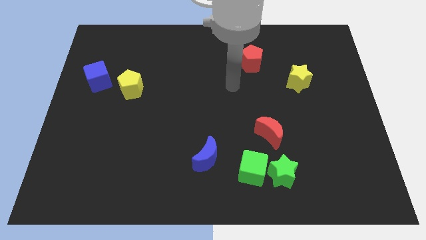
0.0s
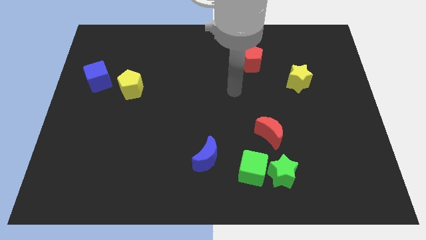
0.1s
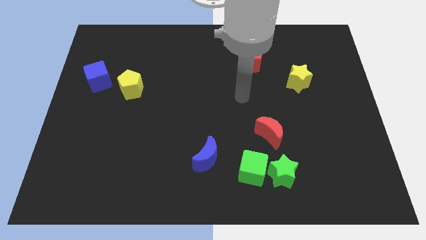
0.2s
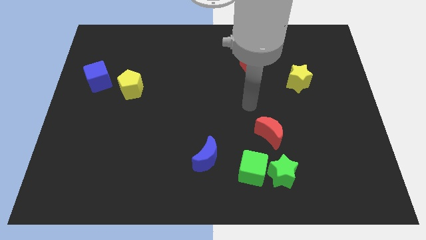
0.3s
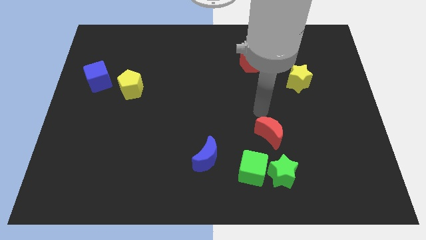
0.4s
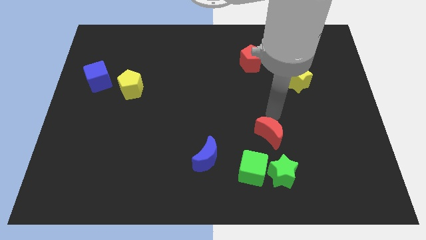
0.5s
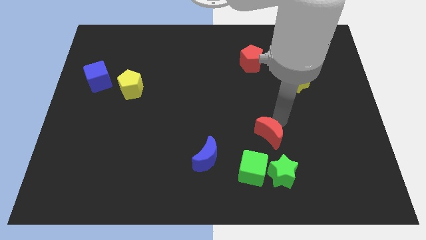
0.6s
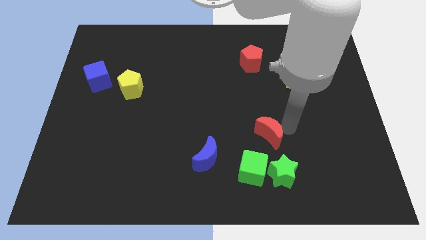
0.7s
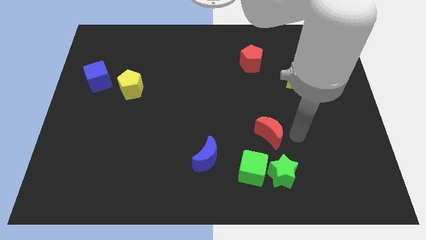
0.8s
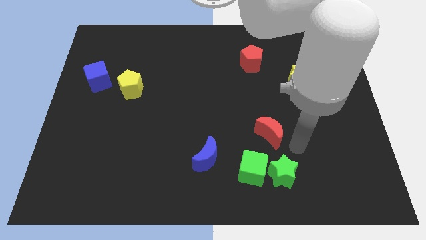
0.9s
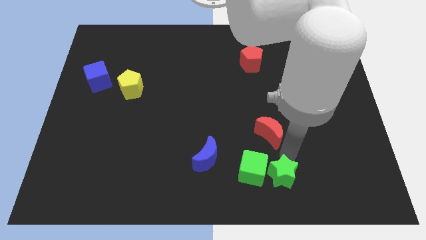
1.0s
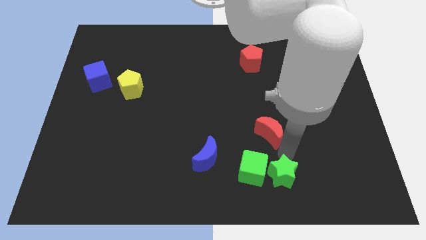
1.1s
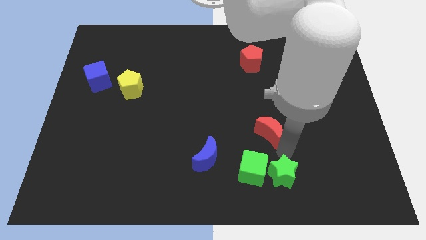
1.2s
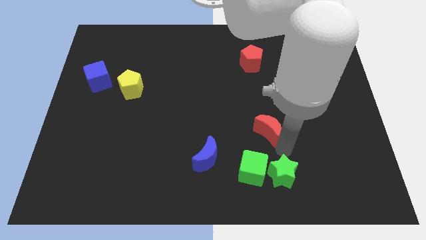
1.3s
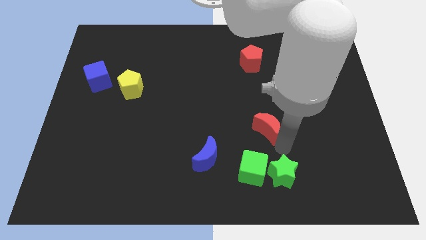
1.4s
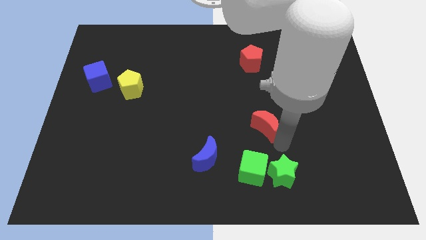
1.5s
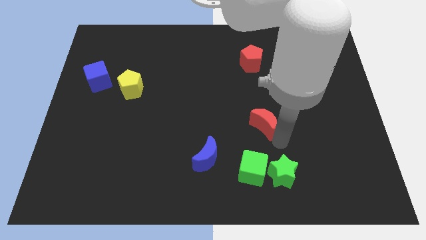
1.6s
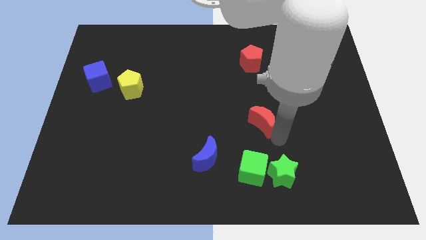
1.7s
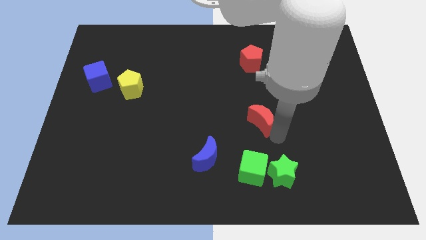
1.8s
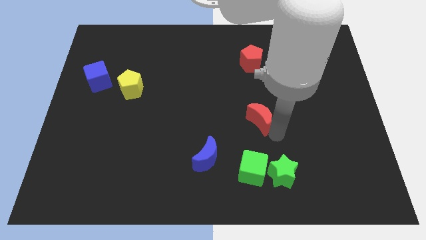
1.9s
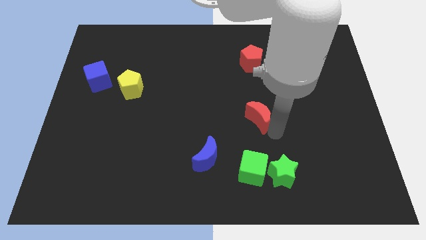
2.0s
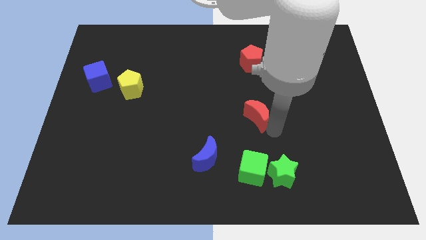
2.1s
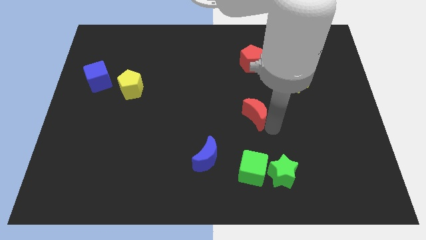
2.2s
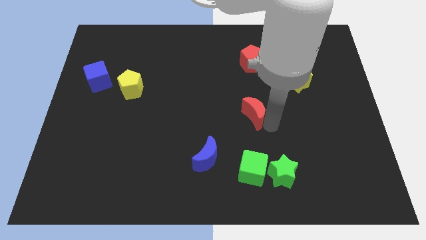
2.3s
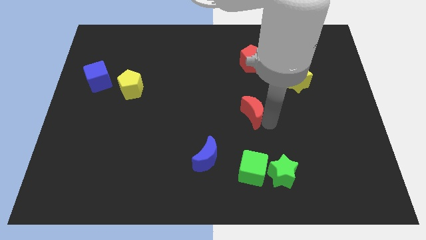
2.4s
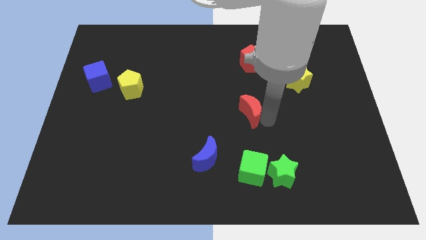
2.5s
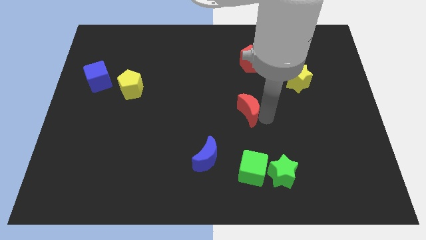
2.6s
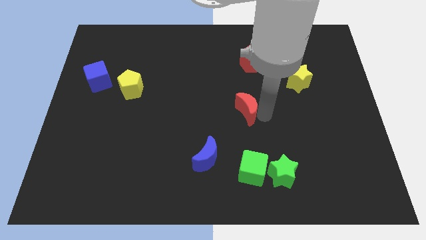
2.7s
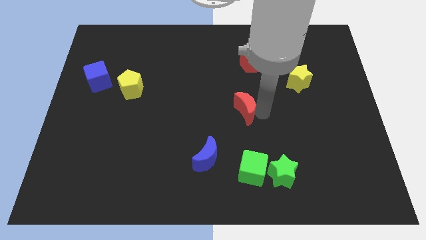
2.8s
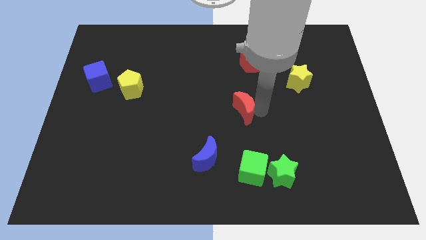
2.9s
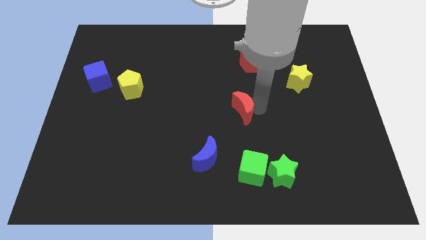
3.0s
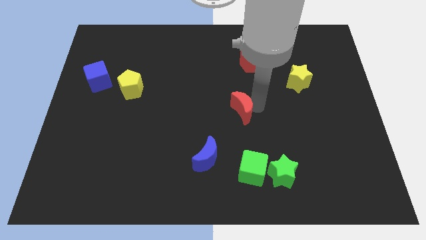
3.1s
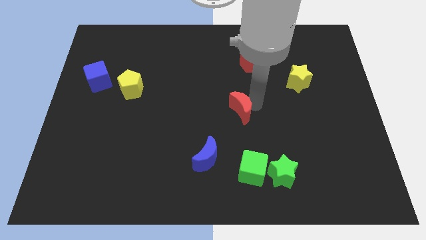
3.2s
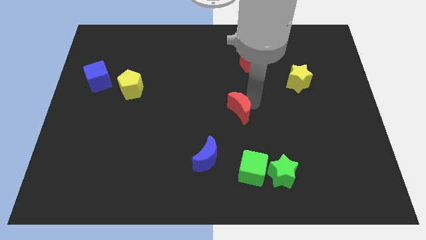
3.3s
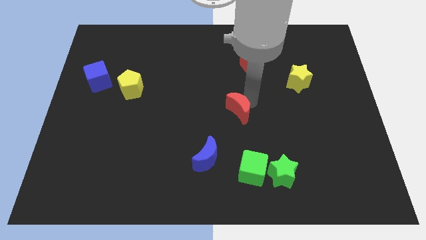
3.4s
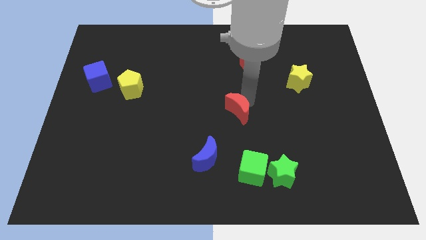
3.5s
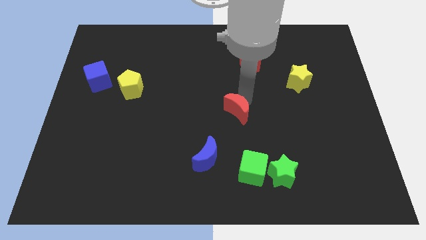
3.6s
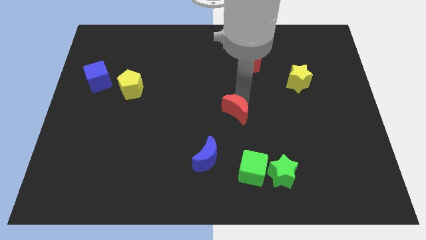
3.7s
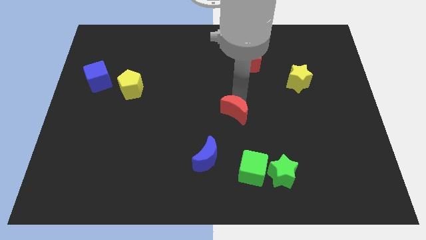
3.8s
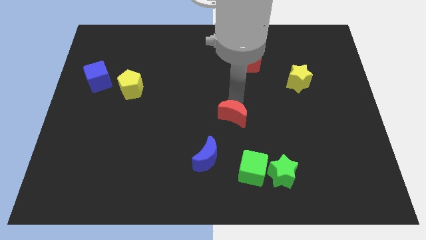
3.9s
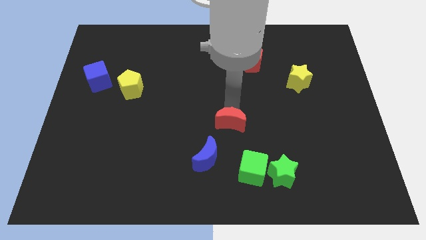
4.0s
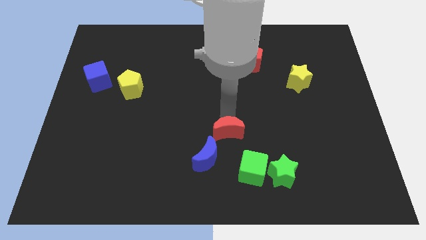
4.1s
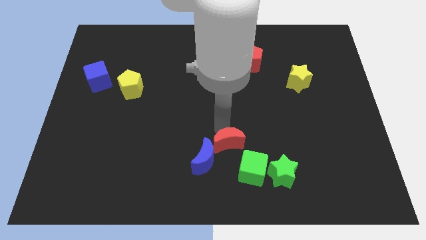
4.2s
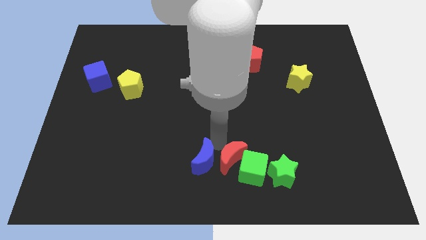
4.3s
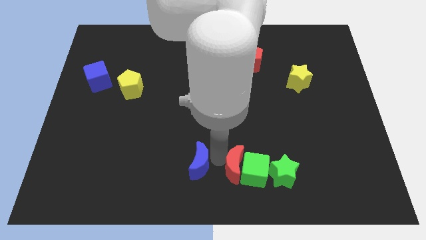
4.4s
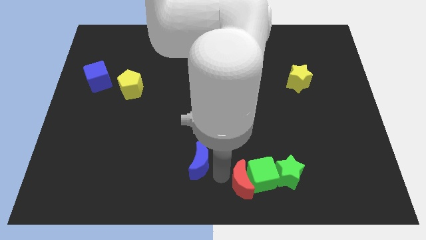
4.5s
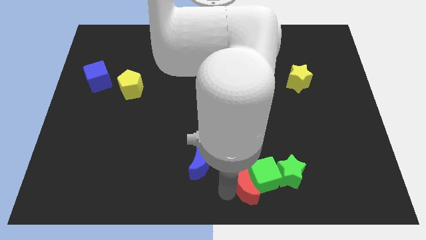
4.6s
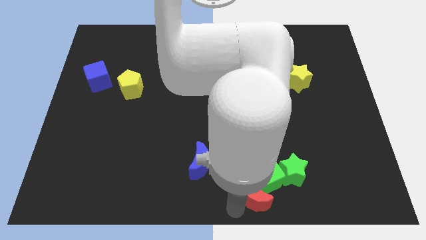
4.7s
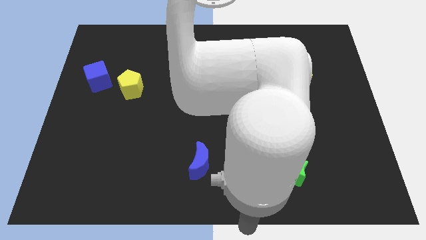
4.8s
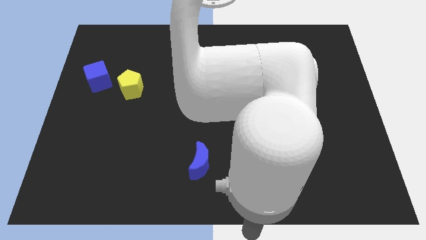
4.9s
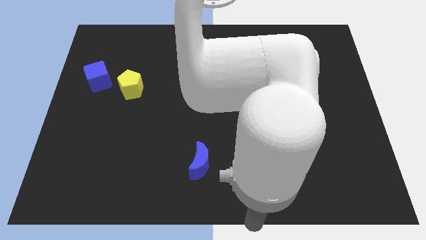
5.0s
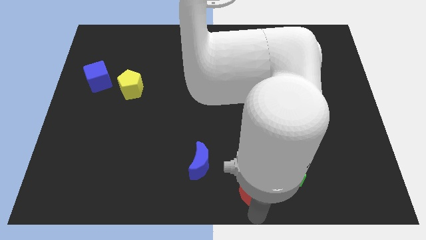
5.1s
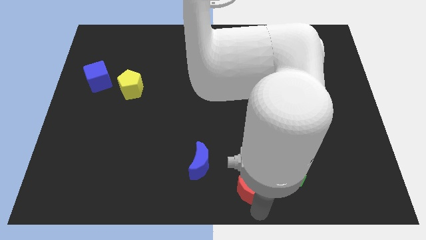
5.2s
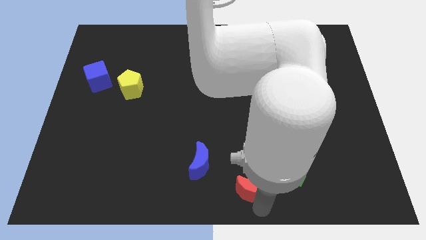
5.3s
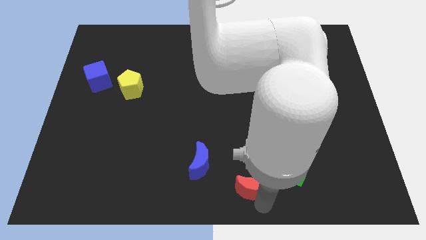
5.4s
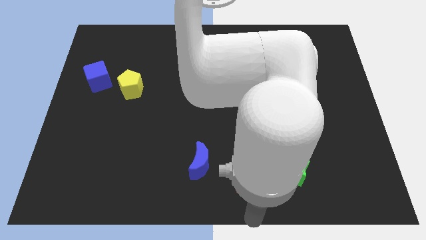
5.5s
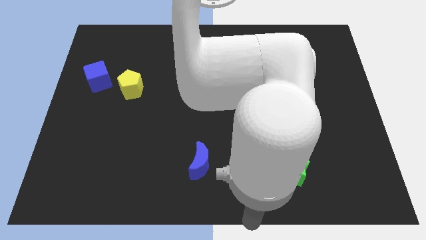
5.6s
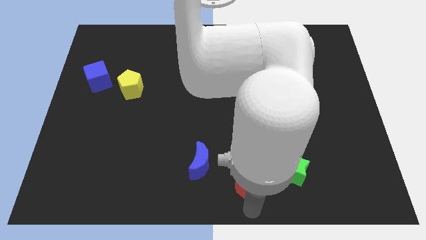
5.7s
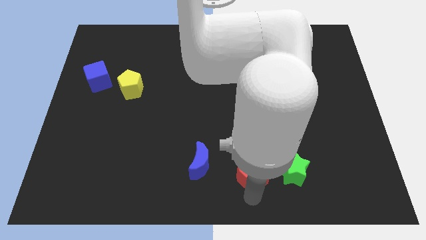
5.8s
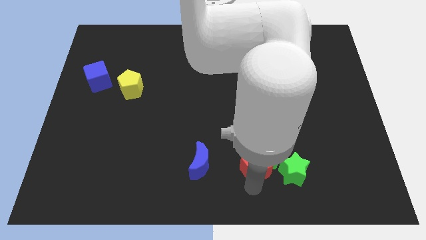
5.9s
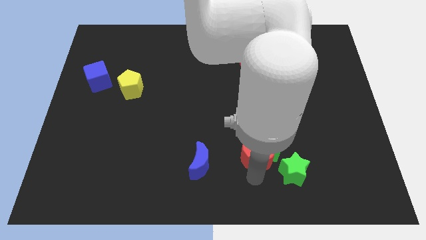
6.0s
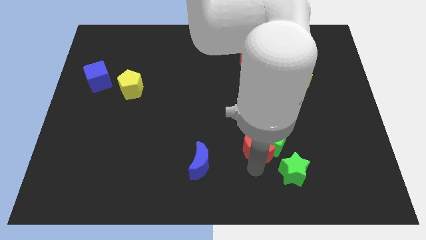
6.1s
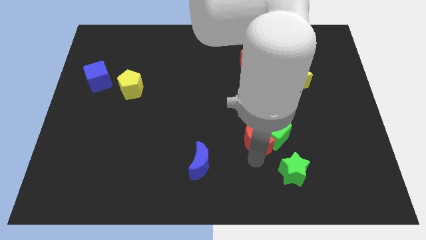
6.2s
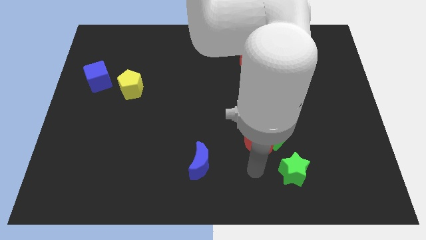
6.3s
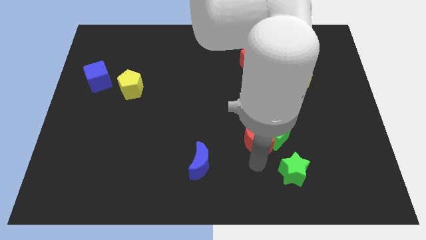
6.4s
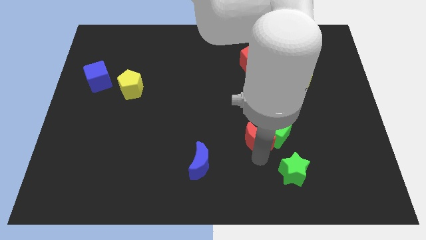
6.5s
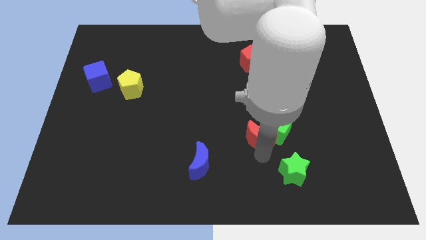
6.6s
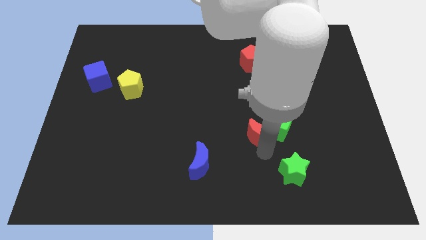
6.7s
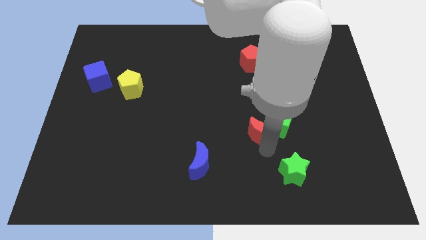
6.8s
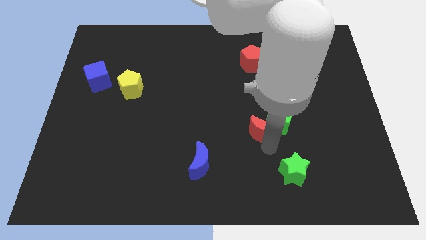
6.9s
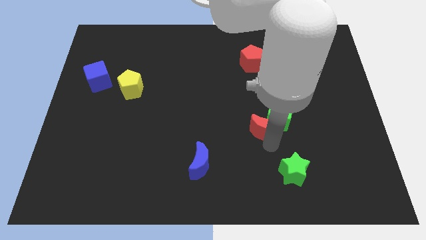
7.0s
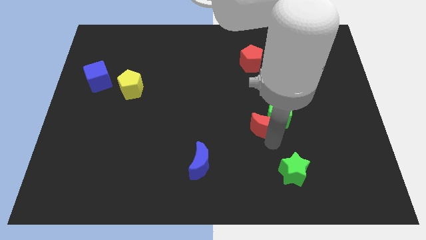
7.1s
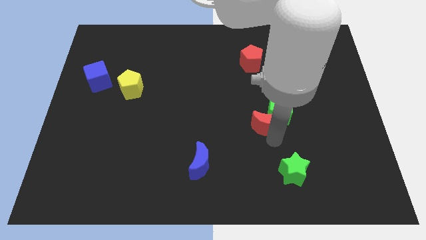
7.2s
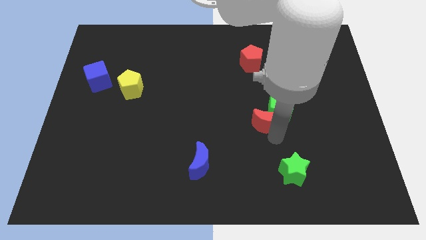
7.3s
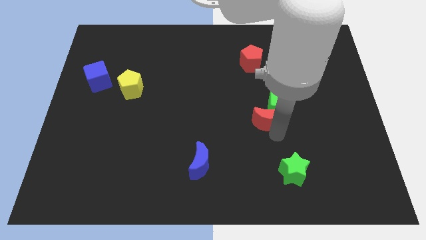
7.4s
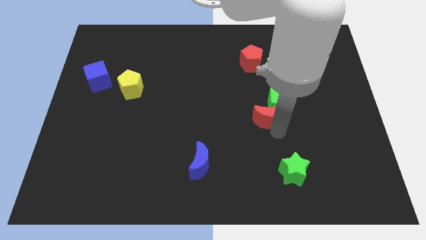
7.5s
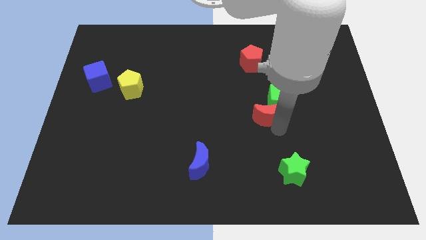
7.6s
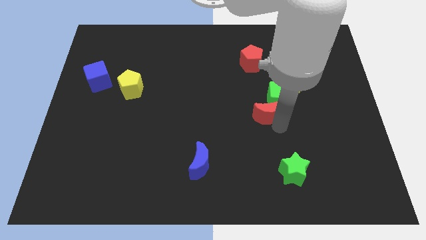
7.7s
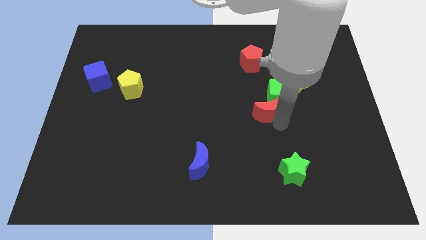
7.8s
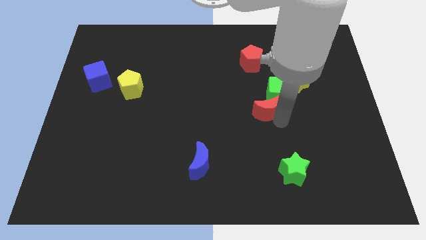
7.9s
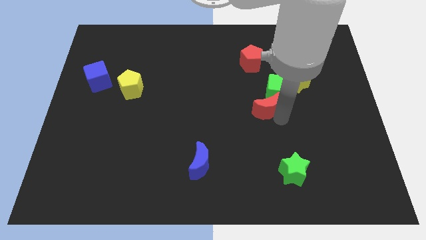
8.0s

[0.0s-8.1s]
push the red moon a little bit upwards
